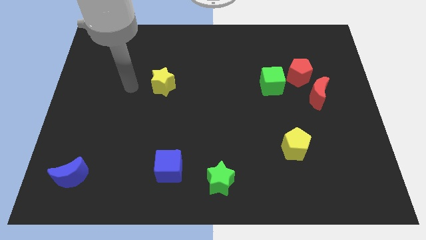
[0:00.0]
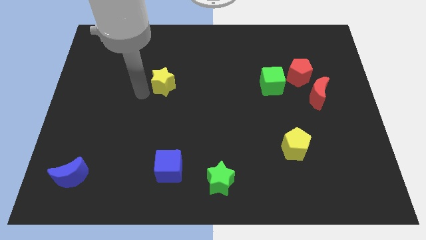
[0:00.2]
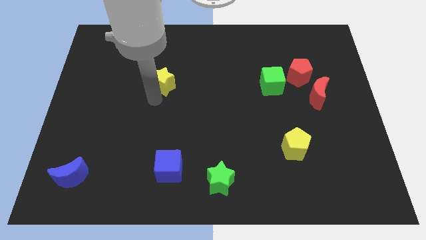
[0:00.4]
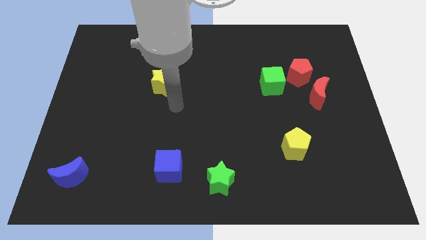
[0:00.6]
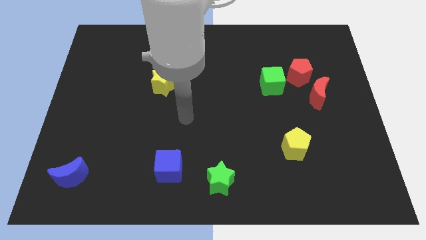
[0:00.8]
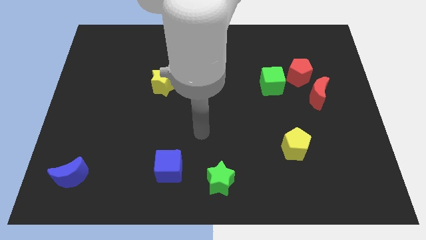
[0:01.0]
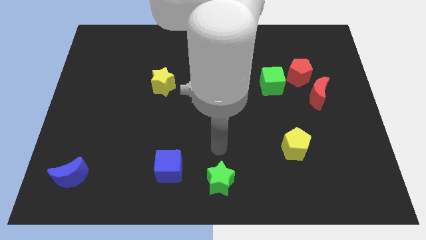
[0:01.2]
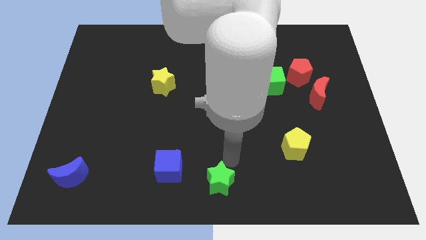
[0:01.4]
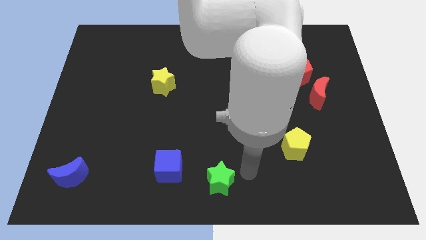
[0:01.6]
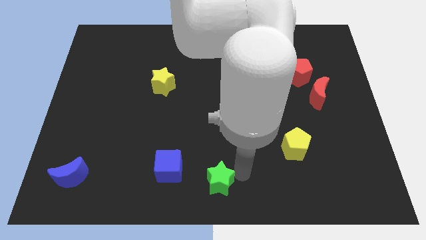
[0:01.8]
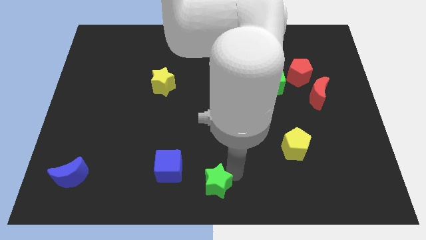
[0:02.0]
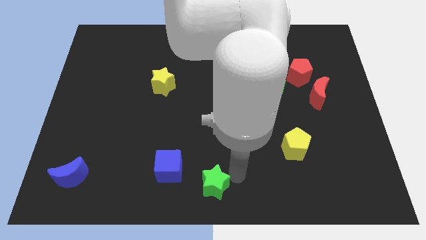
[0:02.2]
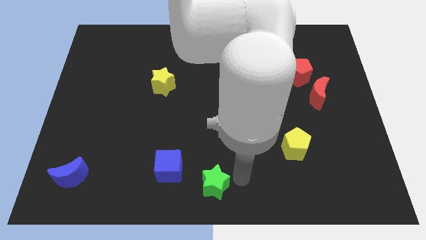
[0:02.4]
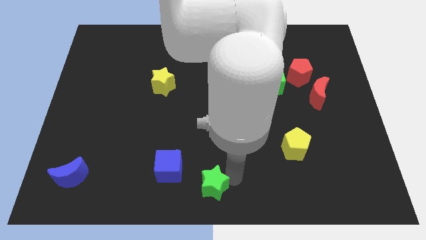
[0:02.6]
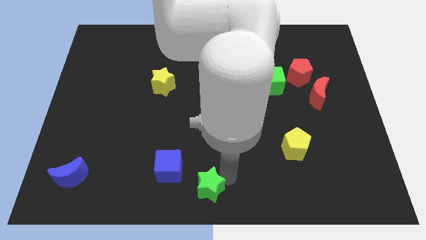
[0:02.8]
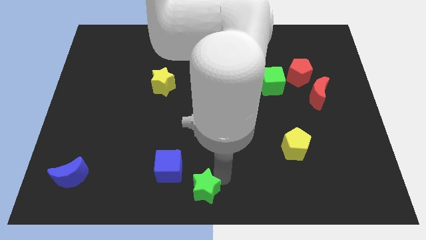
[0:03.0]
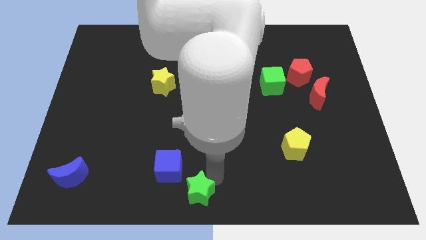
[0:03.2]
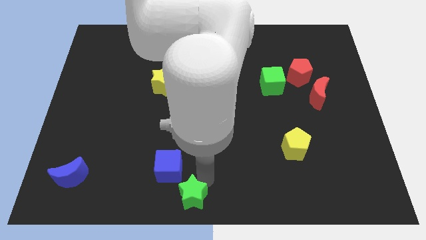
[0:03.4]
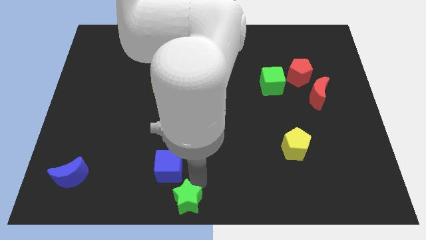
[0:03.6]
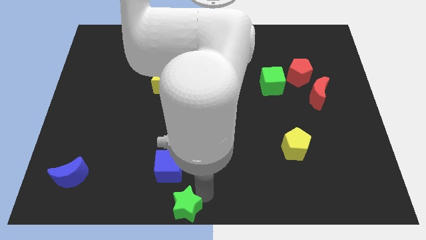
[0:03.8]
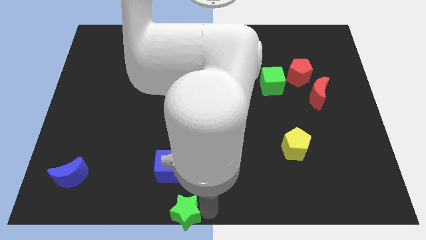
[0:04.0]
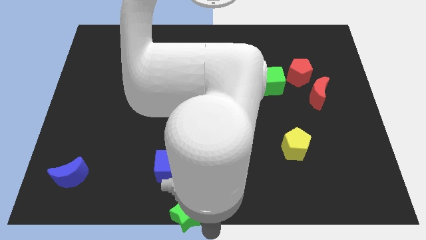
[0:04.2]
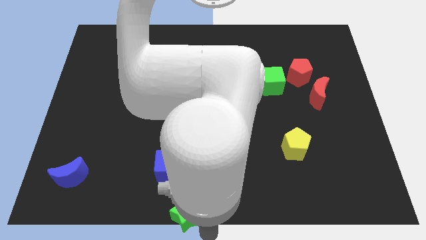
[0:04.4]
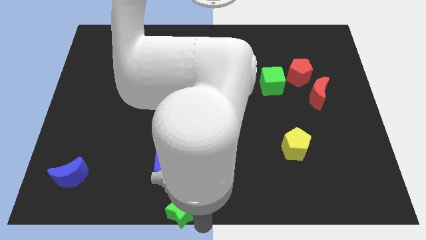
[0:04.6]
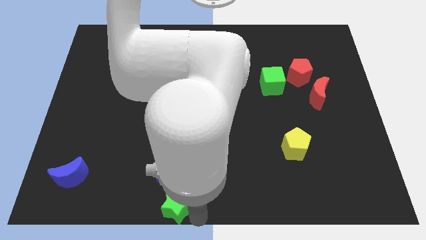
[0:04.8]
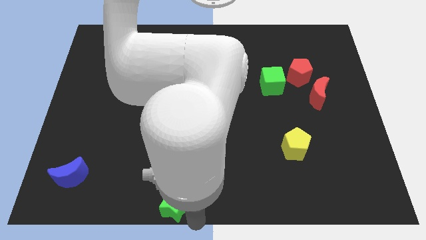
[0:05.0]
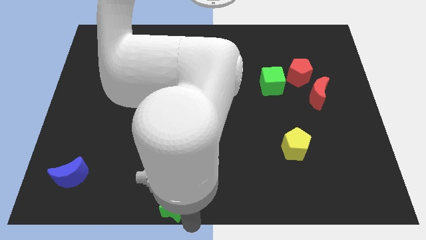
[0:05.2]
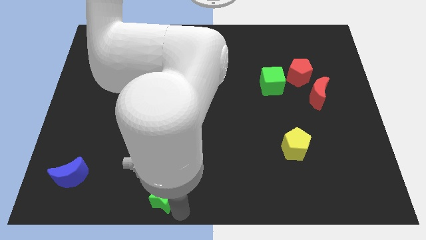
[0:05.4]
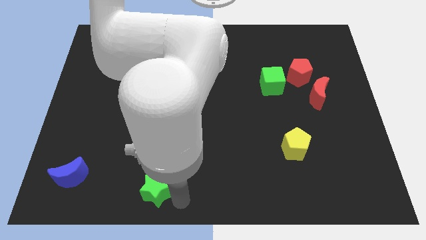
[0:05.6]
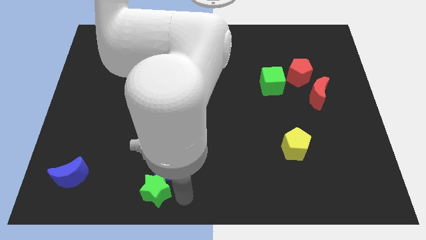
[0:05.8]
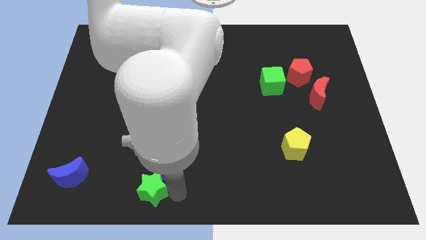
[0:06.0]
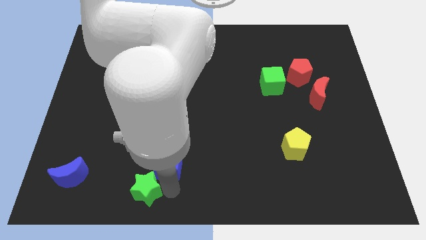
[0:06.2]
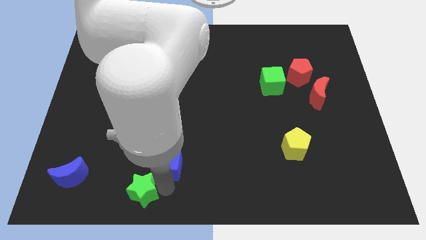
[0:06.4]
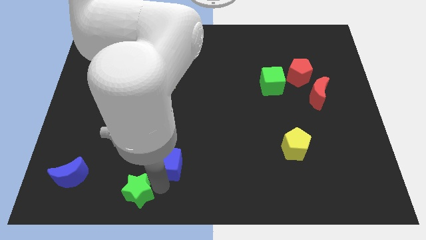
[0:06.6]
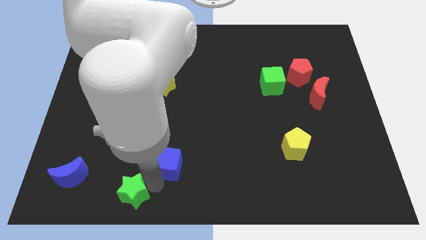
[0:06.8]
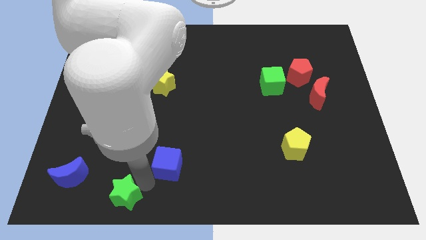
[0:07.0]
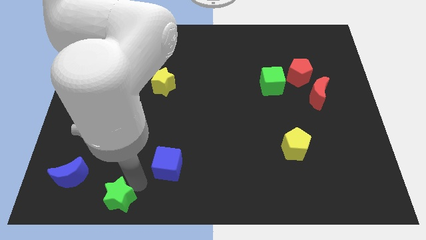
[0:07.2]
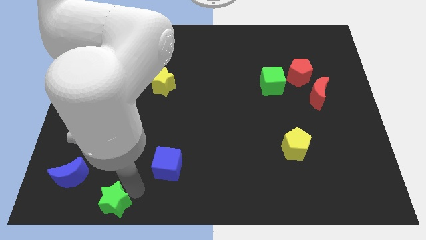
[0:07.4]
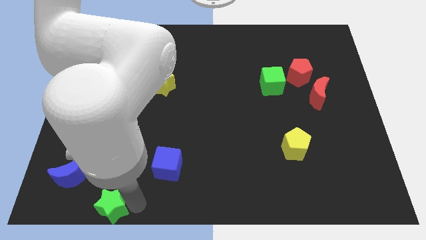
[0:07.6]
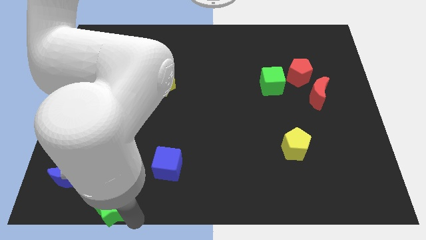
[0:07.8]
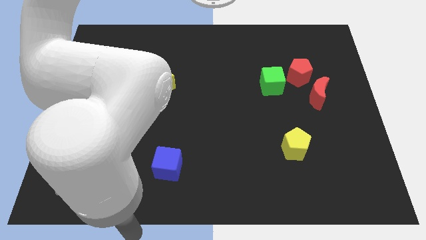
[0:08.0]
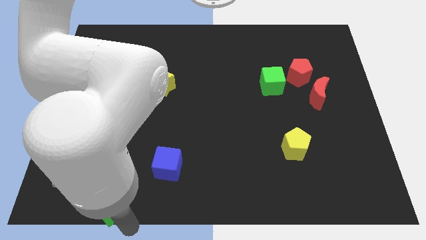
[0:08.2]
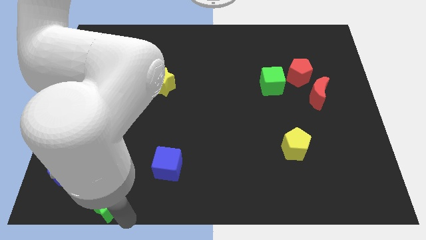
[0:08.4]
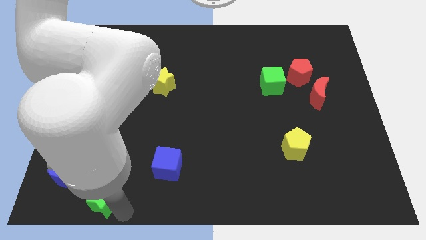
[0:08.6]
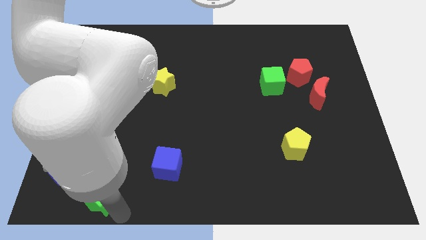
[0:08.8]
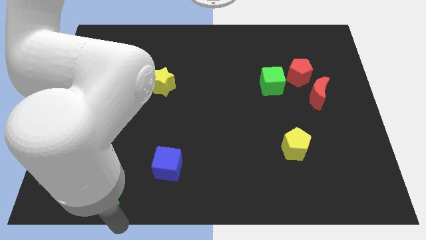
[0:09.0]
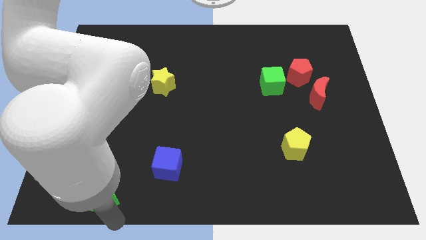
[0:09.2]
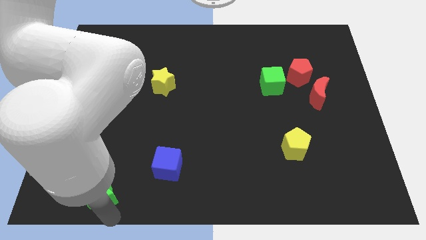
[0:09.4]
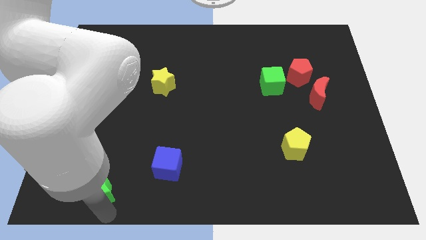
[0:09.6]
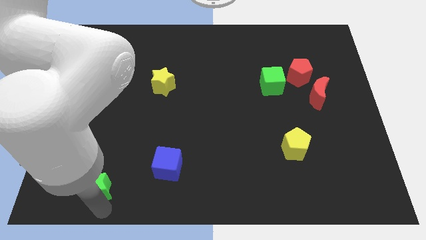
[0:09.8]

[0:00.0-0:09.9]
slide the green star towards the blue moon

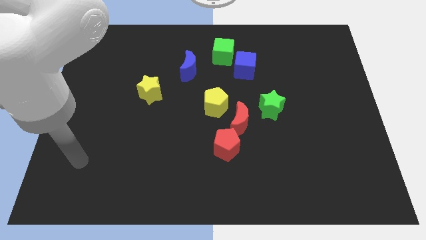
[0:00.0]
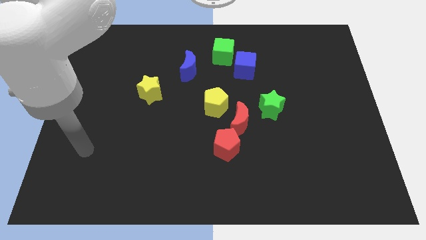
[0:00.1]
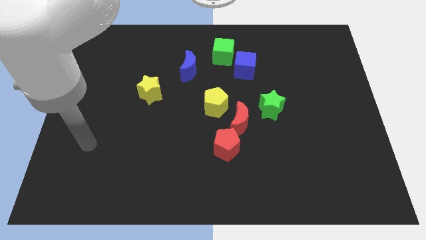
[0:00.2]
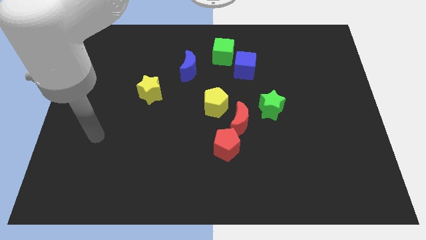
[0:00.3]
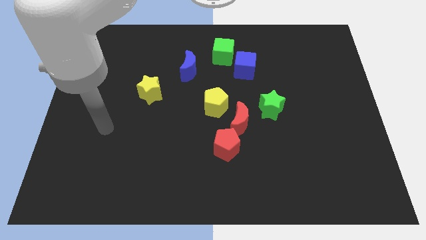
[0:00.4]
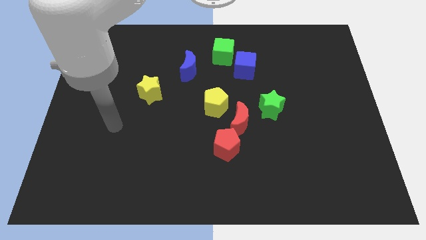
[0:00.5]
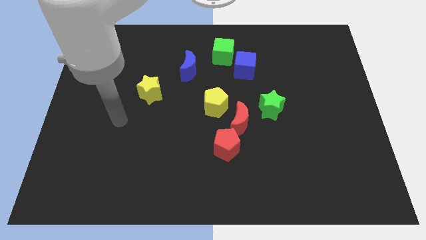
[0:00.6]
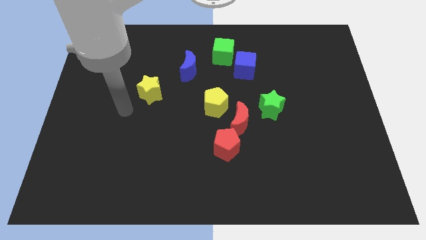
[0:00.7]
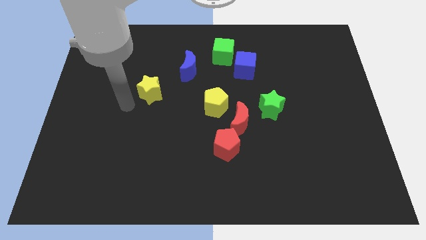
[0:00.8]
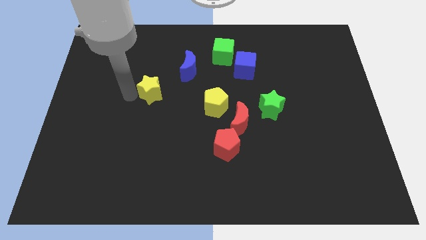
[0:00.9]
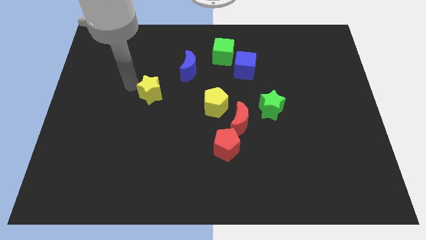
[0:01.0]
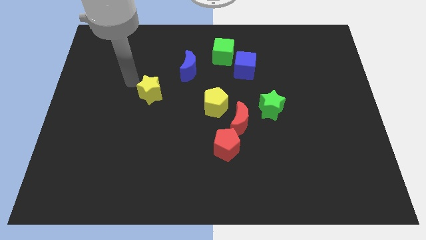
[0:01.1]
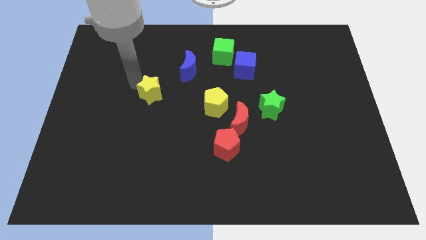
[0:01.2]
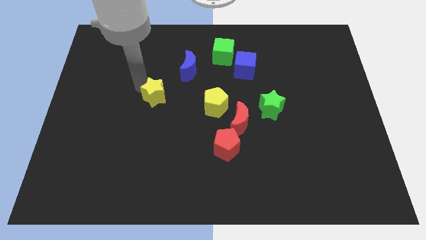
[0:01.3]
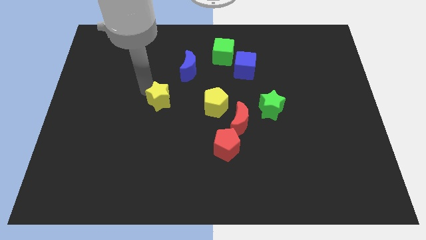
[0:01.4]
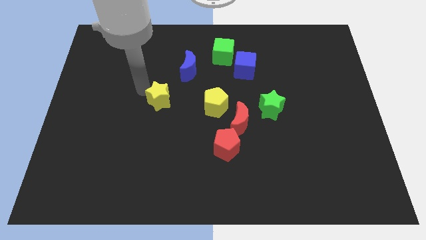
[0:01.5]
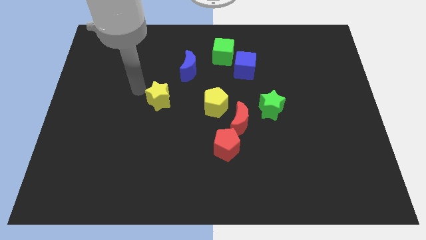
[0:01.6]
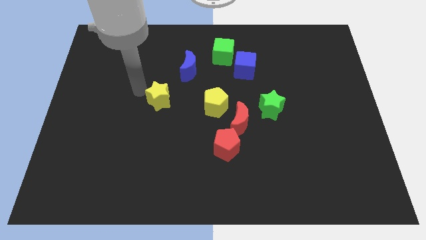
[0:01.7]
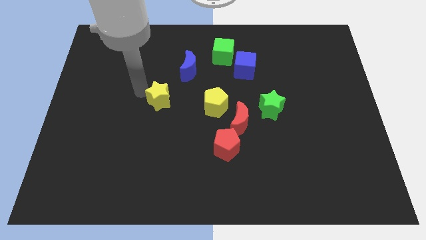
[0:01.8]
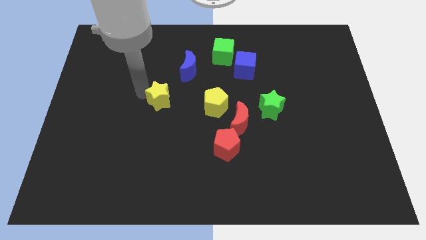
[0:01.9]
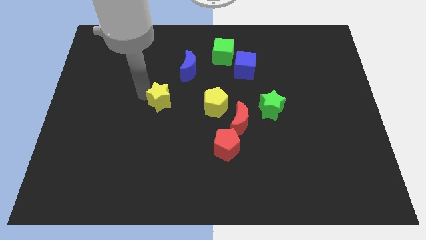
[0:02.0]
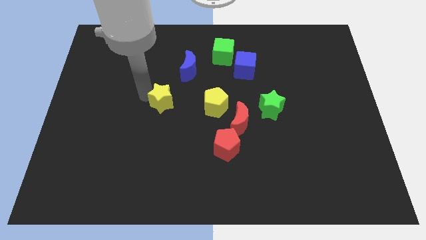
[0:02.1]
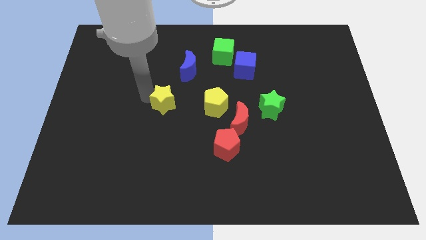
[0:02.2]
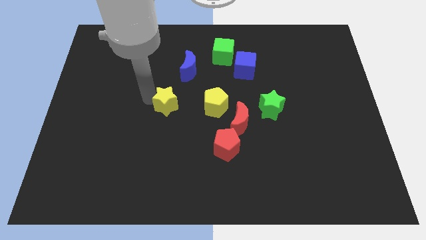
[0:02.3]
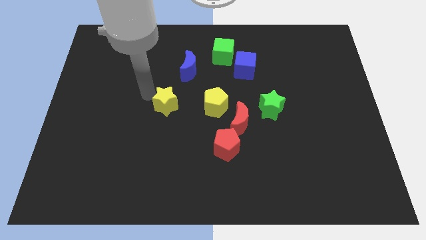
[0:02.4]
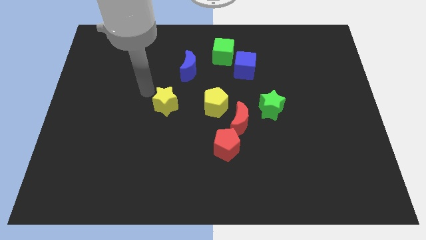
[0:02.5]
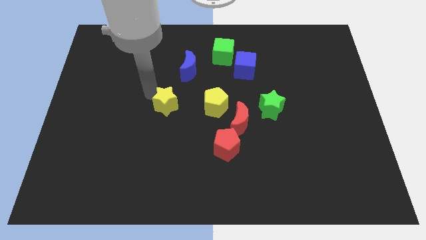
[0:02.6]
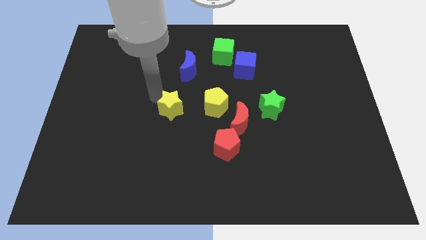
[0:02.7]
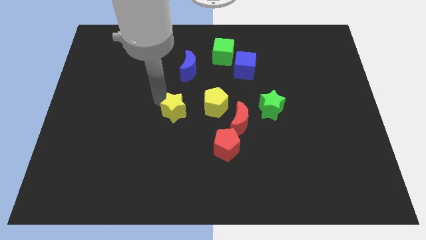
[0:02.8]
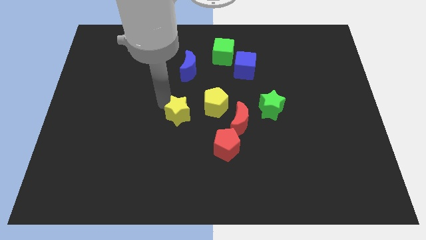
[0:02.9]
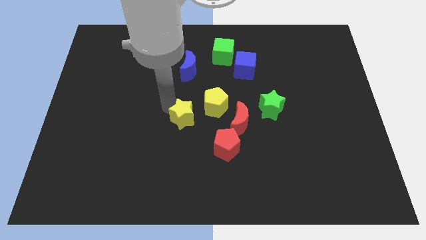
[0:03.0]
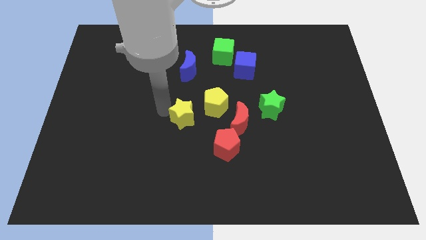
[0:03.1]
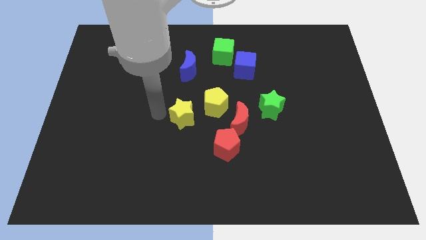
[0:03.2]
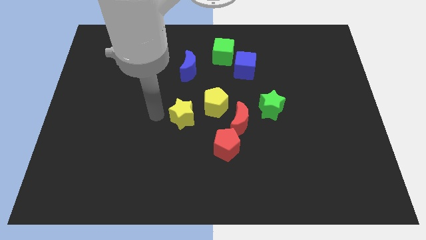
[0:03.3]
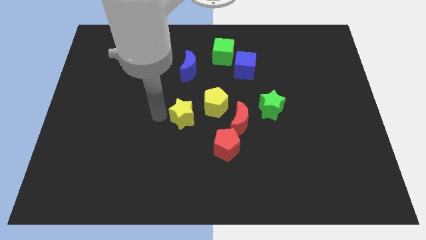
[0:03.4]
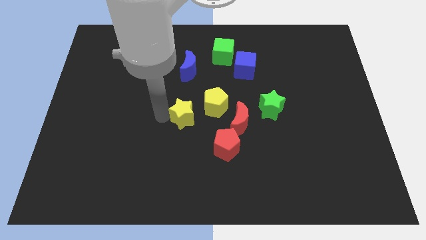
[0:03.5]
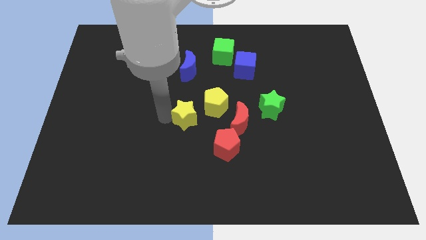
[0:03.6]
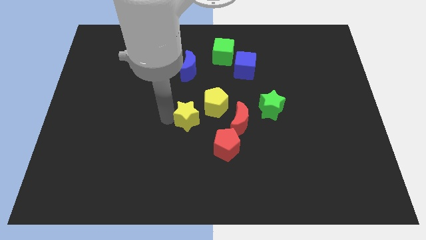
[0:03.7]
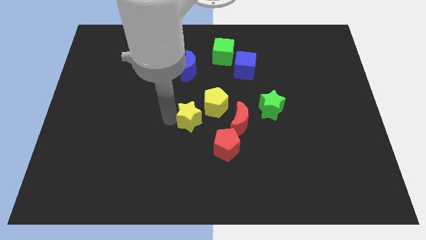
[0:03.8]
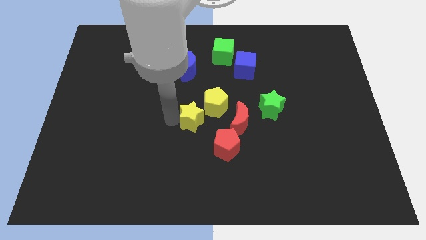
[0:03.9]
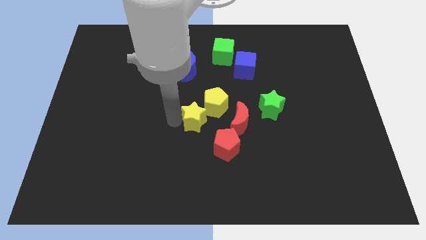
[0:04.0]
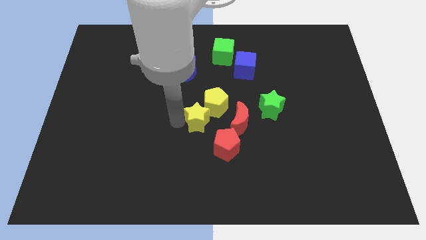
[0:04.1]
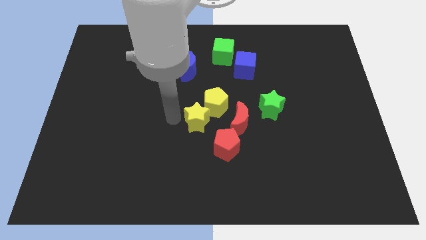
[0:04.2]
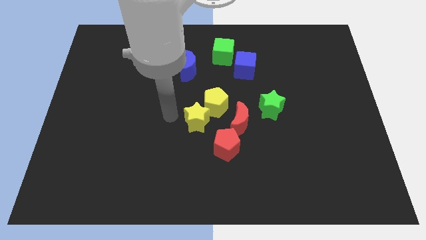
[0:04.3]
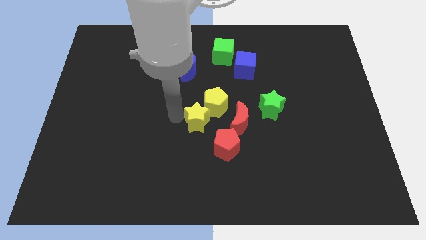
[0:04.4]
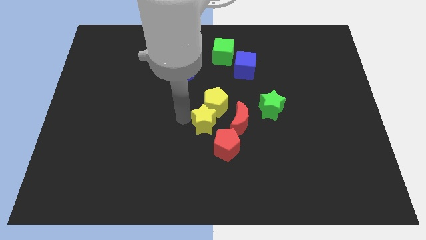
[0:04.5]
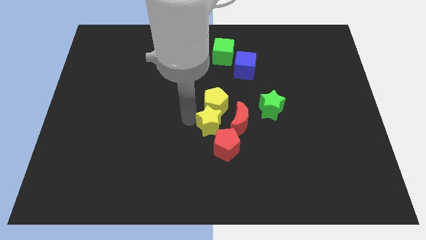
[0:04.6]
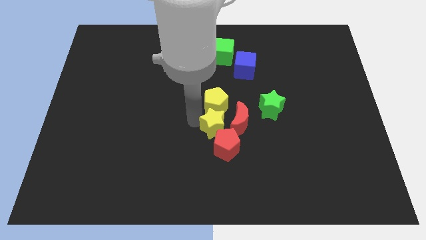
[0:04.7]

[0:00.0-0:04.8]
slide the yellow star next to the red moon
